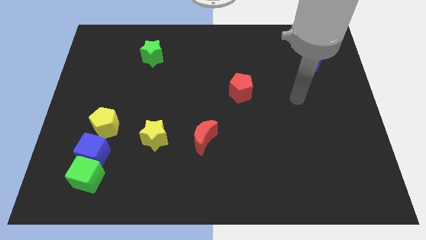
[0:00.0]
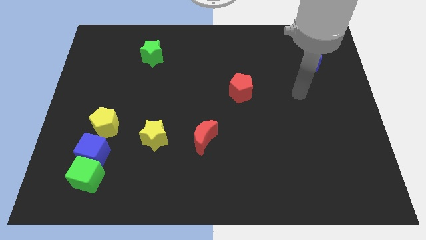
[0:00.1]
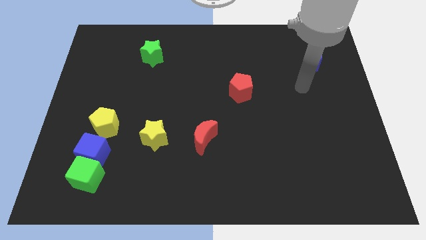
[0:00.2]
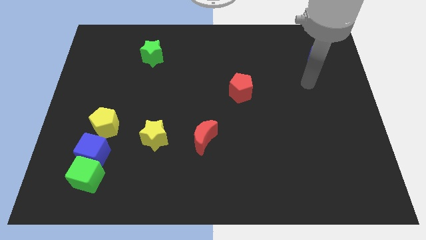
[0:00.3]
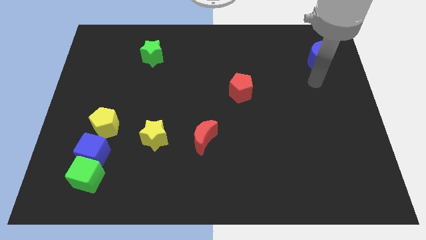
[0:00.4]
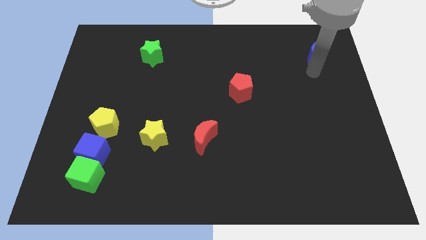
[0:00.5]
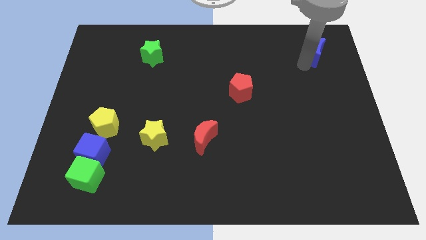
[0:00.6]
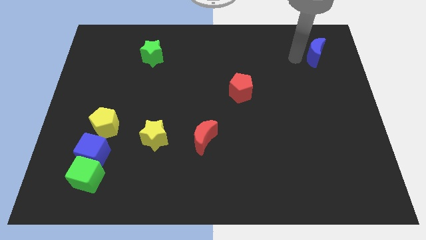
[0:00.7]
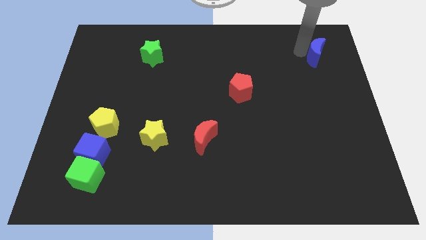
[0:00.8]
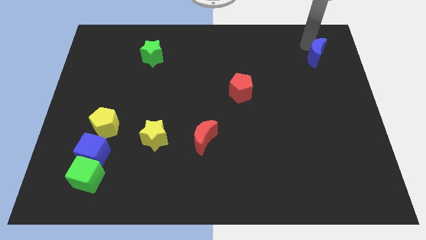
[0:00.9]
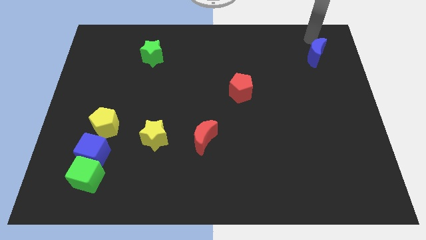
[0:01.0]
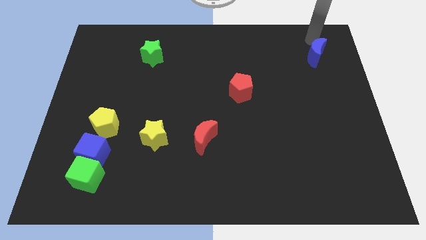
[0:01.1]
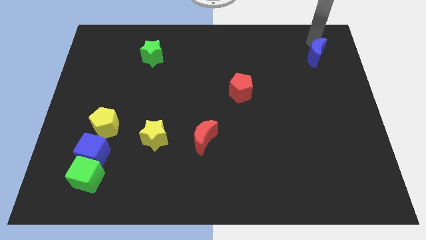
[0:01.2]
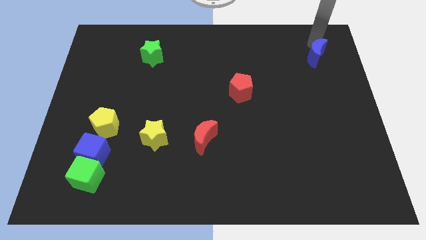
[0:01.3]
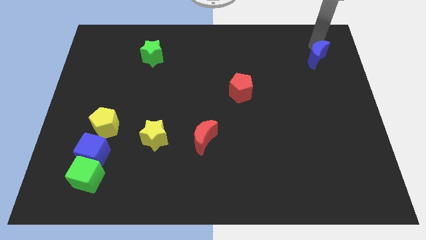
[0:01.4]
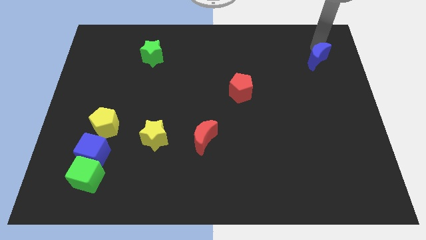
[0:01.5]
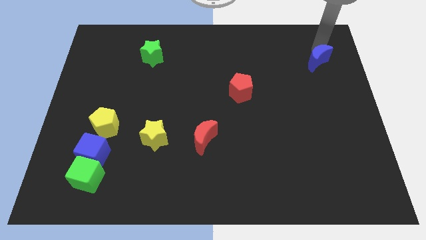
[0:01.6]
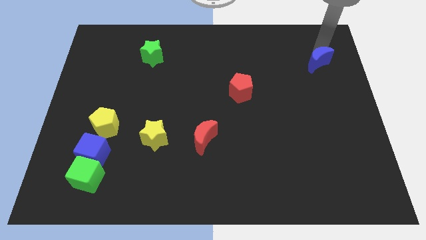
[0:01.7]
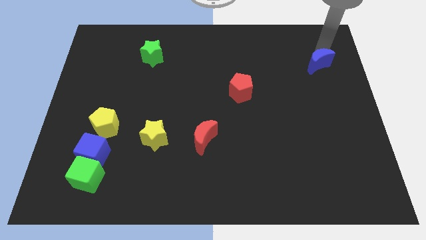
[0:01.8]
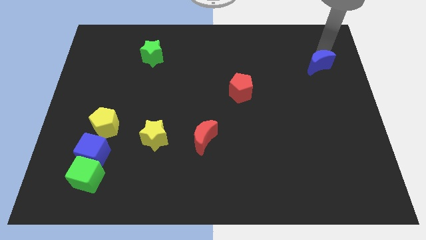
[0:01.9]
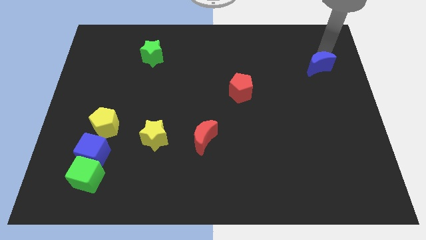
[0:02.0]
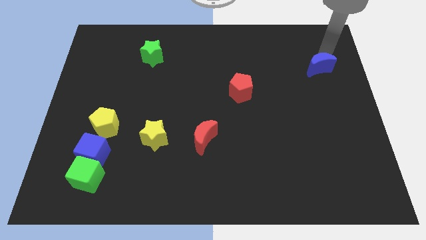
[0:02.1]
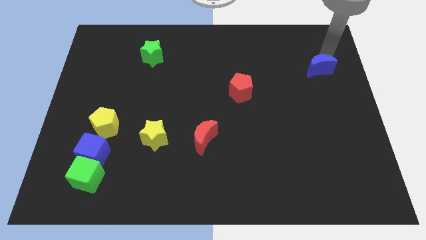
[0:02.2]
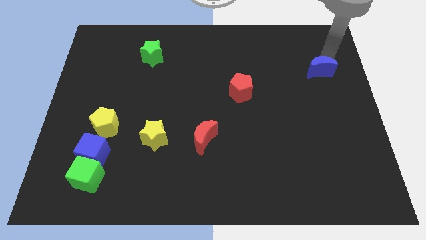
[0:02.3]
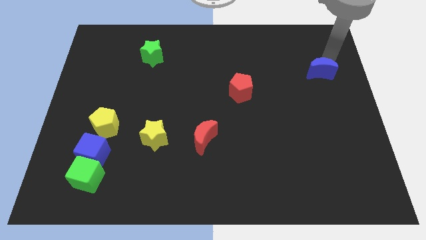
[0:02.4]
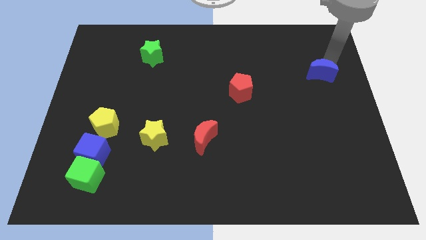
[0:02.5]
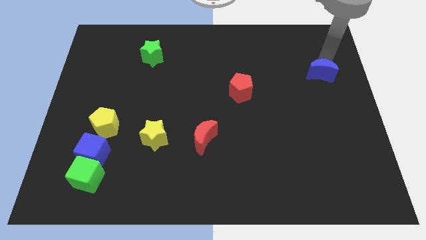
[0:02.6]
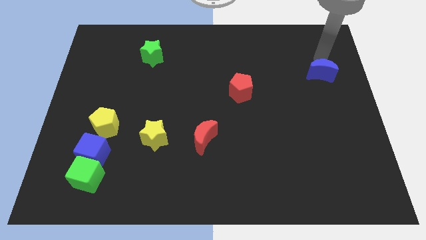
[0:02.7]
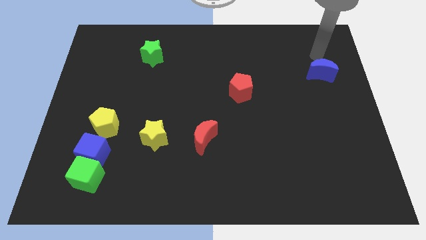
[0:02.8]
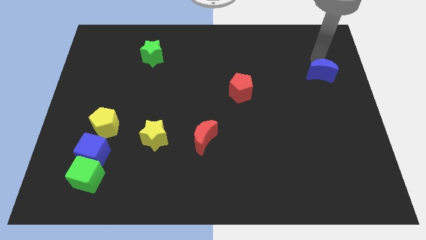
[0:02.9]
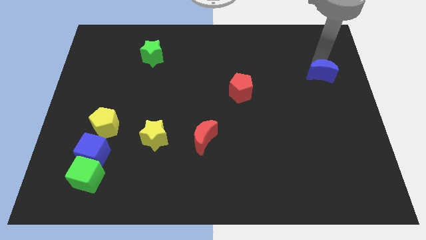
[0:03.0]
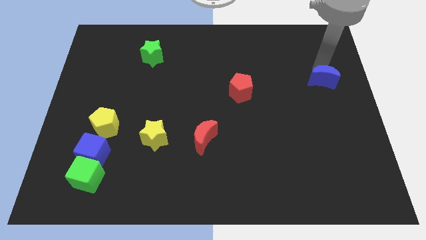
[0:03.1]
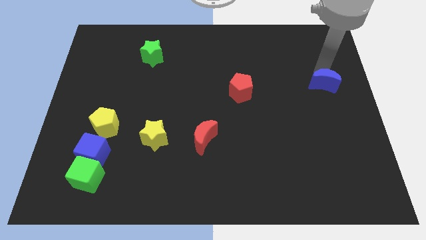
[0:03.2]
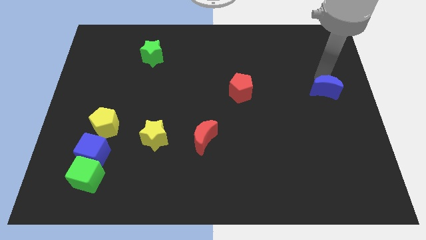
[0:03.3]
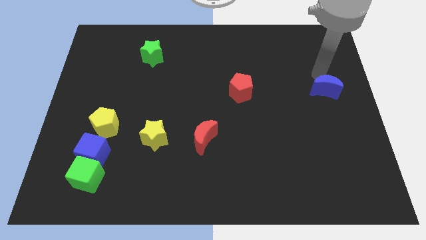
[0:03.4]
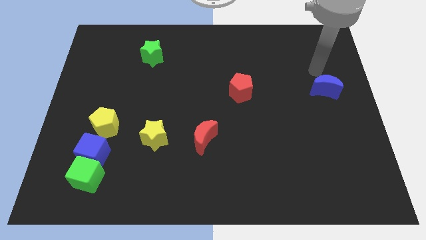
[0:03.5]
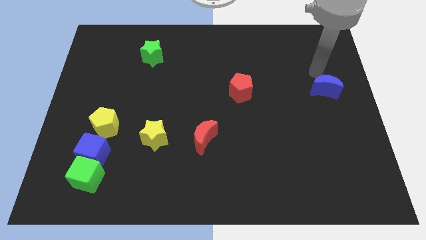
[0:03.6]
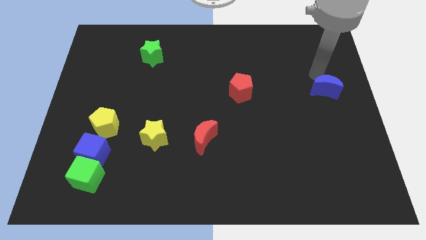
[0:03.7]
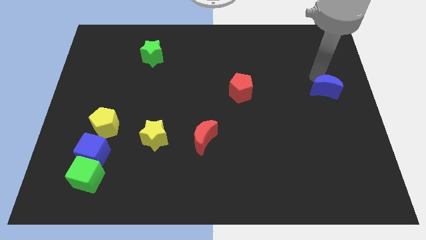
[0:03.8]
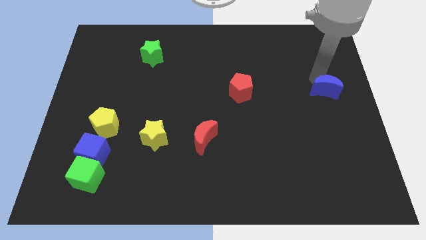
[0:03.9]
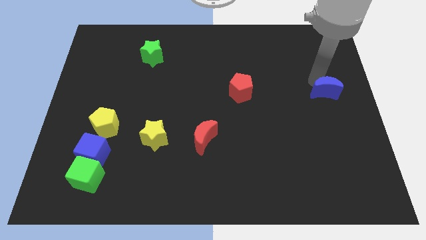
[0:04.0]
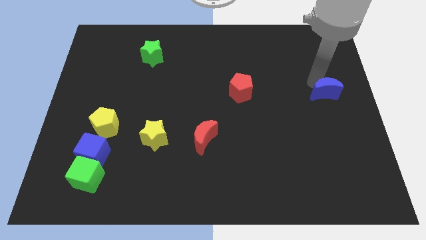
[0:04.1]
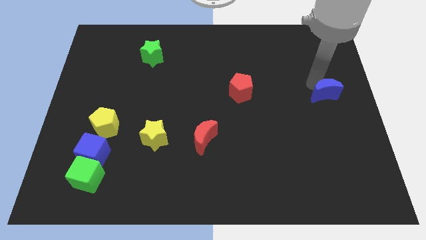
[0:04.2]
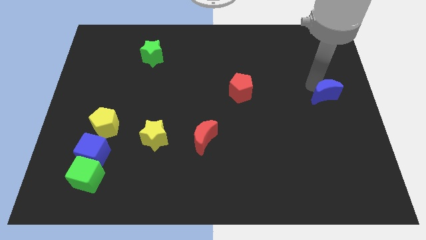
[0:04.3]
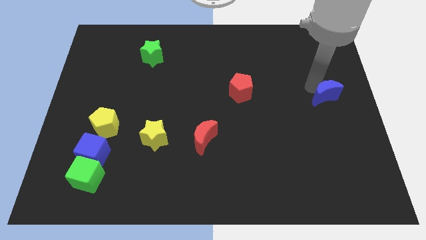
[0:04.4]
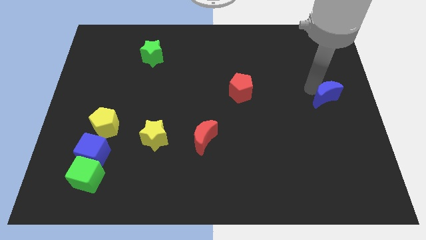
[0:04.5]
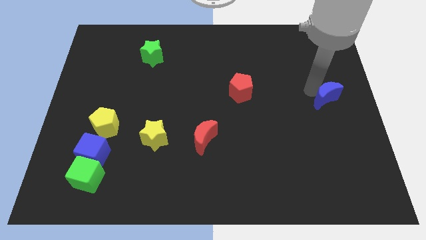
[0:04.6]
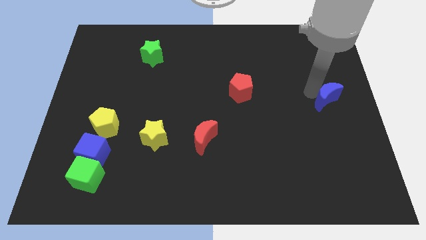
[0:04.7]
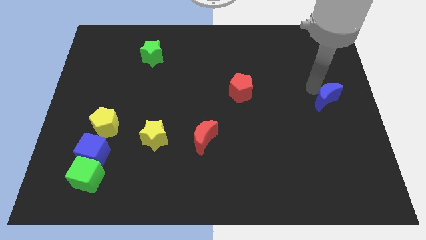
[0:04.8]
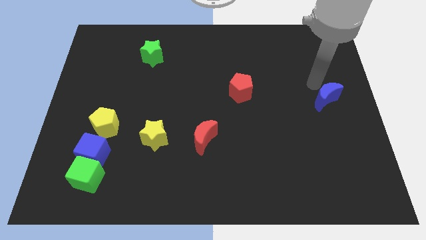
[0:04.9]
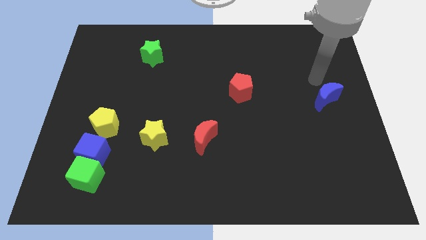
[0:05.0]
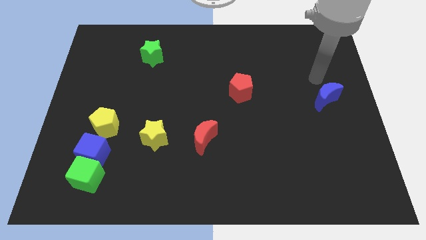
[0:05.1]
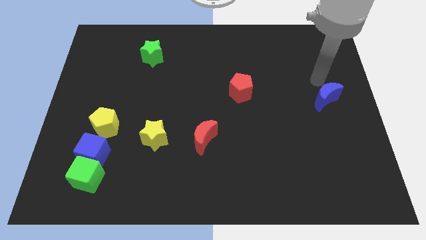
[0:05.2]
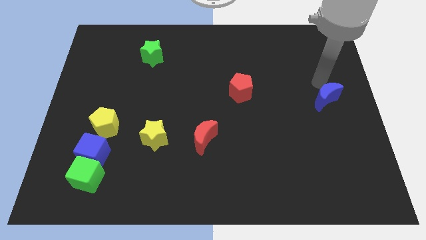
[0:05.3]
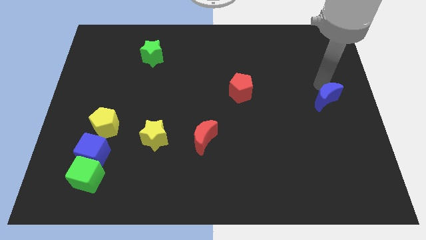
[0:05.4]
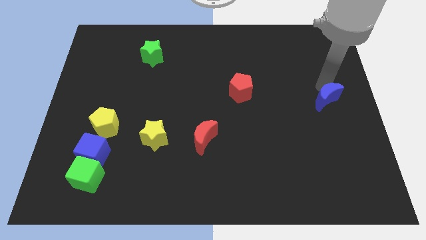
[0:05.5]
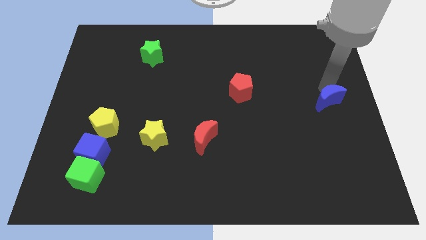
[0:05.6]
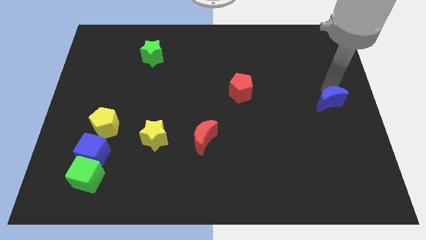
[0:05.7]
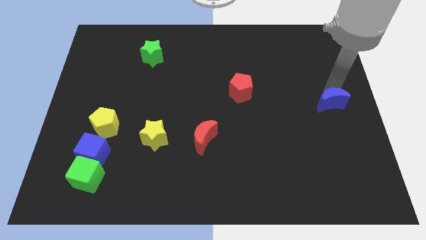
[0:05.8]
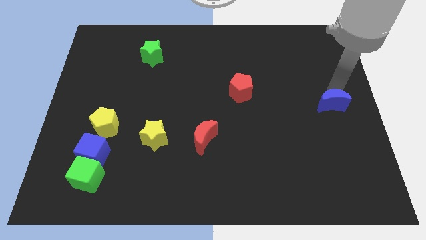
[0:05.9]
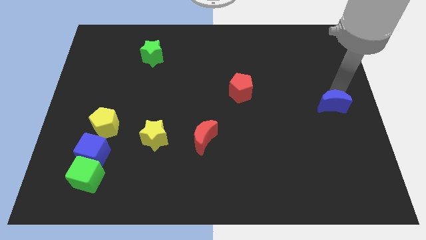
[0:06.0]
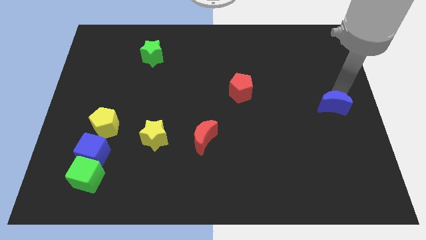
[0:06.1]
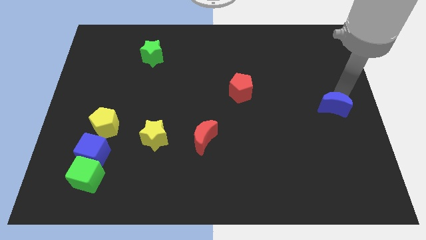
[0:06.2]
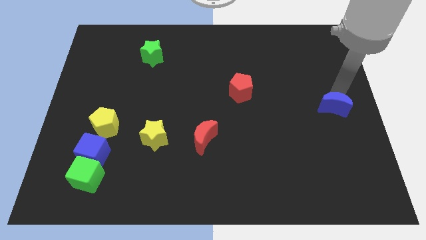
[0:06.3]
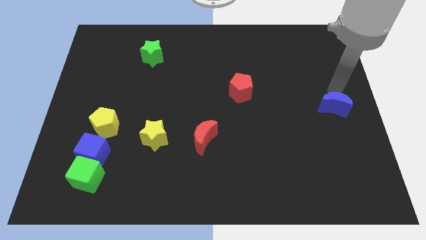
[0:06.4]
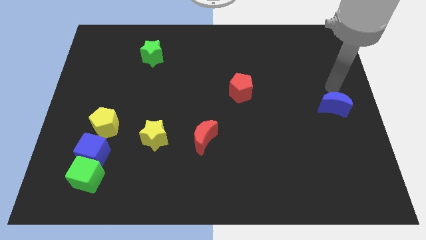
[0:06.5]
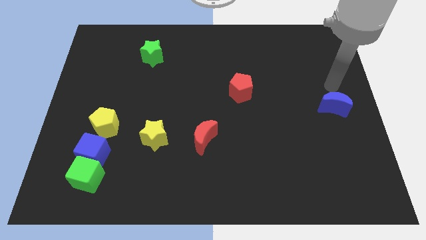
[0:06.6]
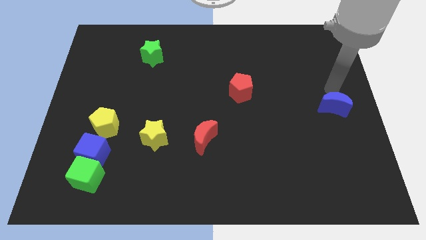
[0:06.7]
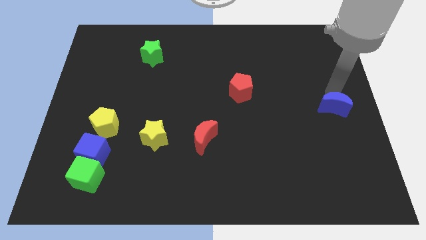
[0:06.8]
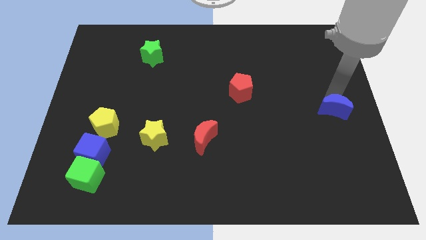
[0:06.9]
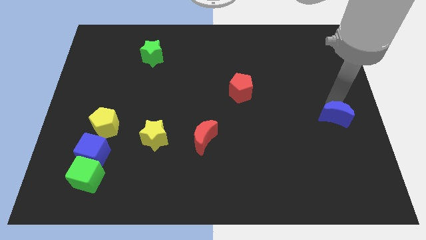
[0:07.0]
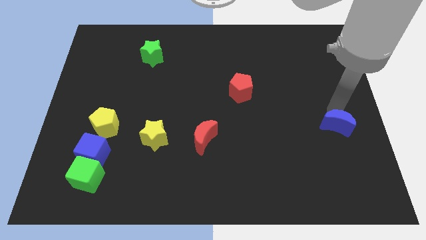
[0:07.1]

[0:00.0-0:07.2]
push the blue moon down

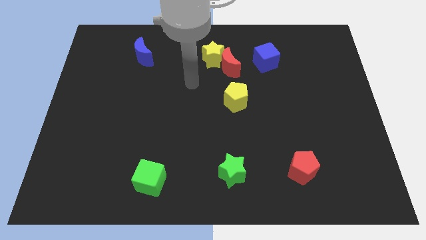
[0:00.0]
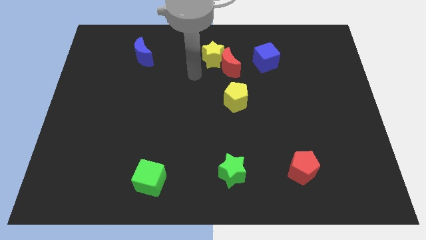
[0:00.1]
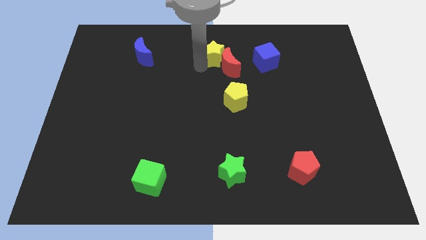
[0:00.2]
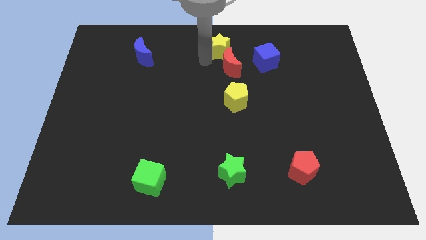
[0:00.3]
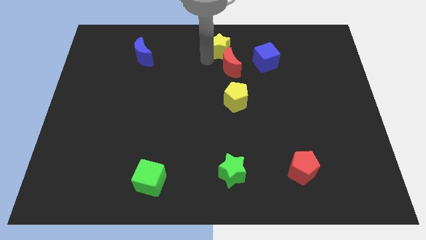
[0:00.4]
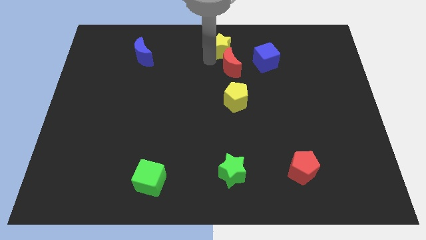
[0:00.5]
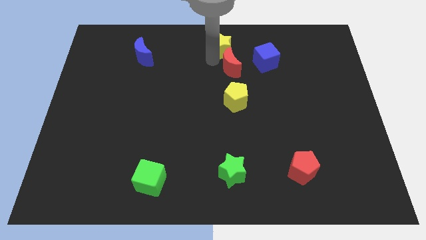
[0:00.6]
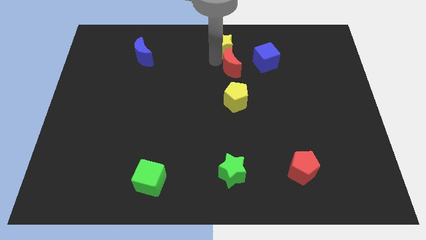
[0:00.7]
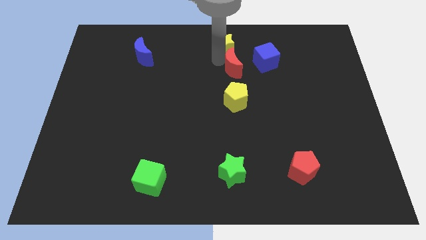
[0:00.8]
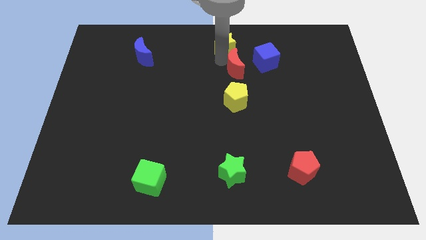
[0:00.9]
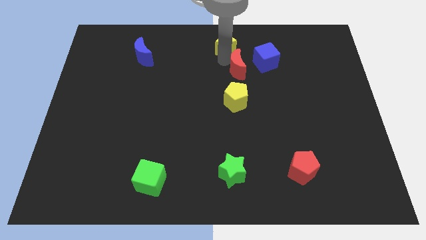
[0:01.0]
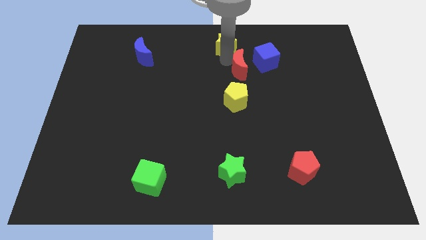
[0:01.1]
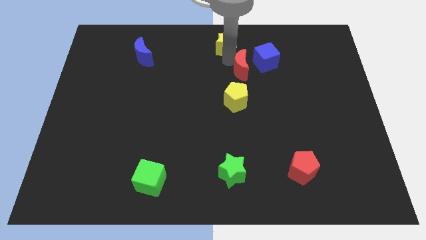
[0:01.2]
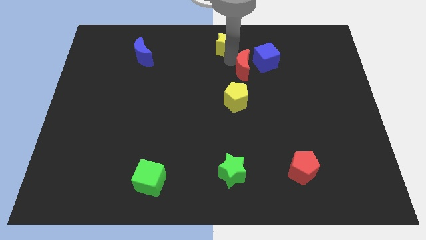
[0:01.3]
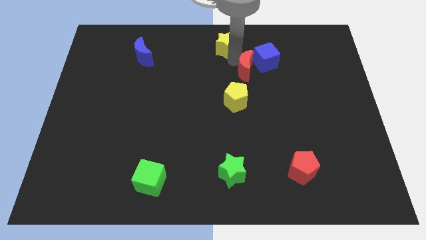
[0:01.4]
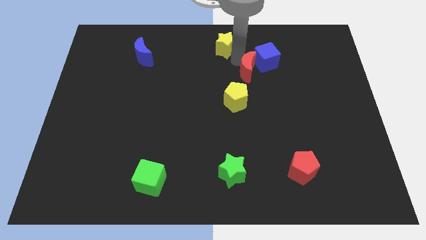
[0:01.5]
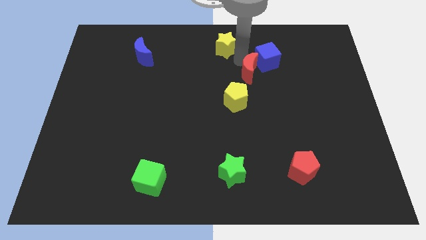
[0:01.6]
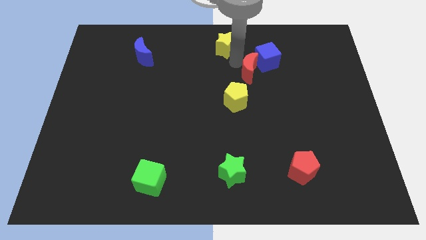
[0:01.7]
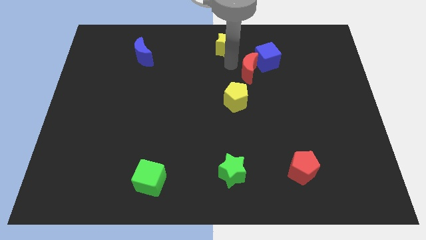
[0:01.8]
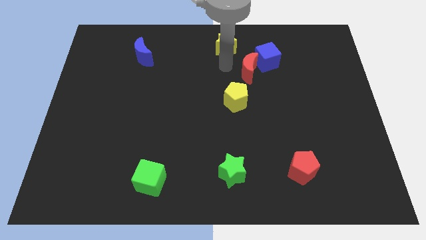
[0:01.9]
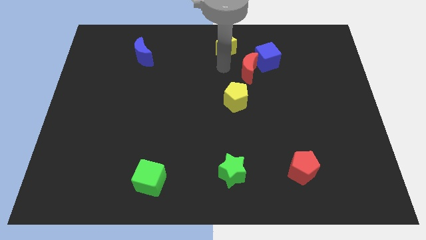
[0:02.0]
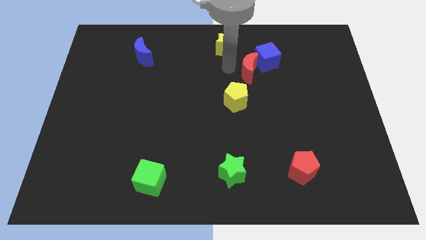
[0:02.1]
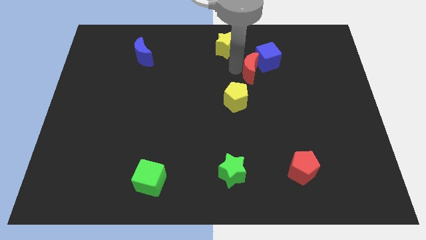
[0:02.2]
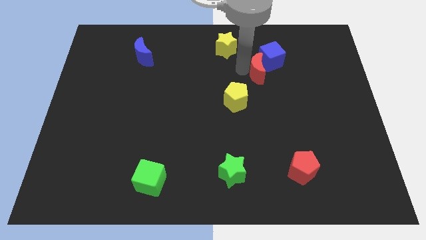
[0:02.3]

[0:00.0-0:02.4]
slightly slide the red moon right
